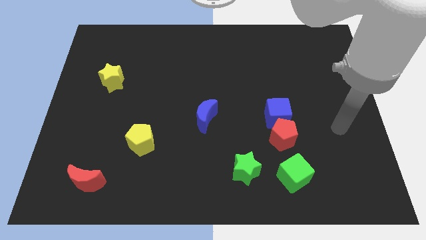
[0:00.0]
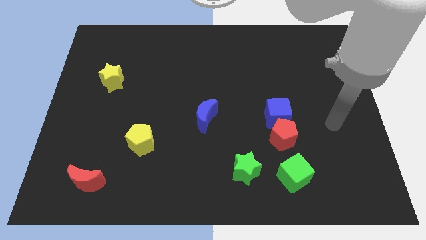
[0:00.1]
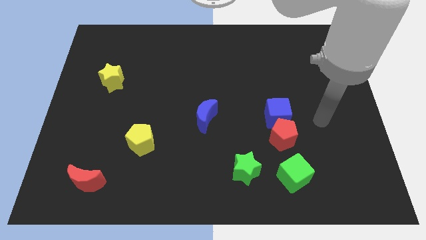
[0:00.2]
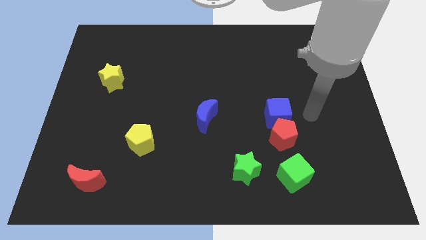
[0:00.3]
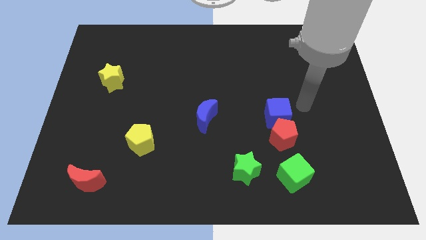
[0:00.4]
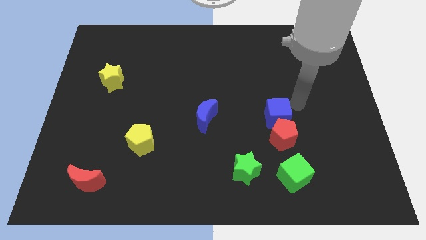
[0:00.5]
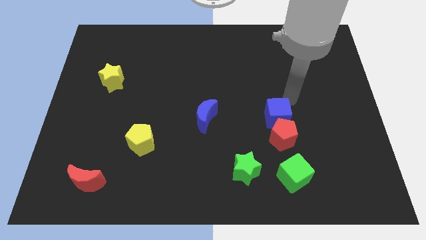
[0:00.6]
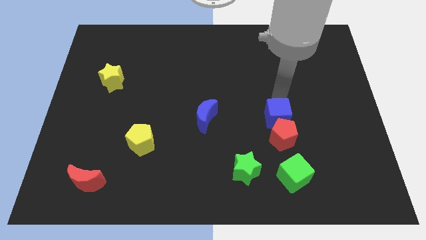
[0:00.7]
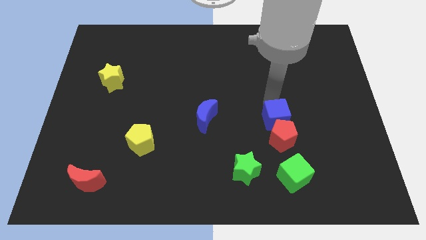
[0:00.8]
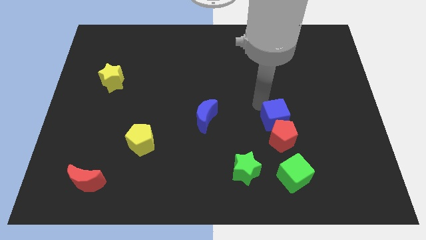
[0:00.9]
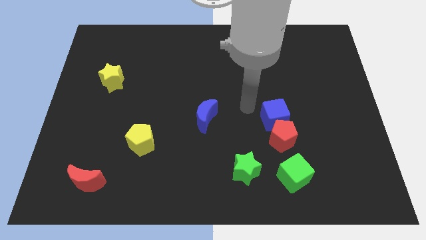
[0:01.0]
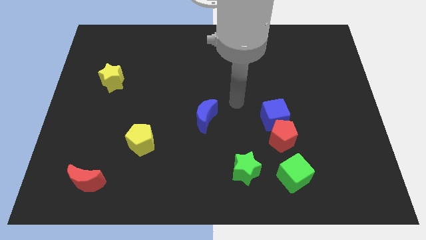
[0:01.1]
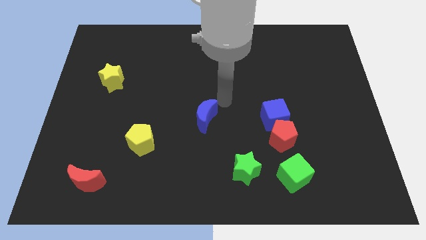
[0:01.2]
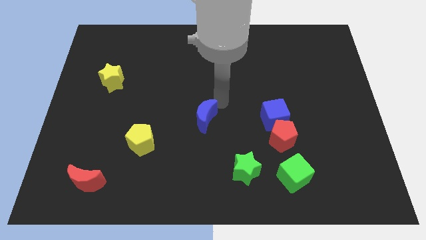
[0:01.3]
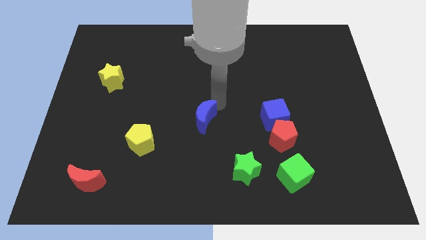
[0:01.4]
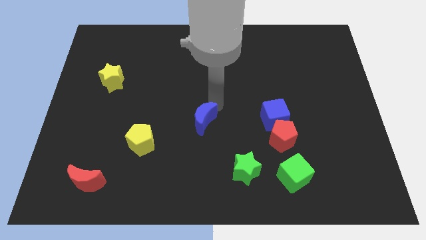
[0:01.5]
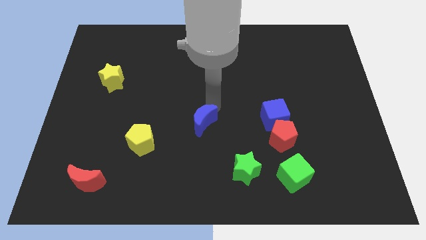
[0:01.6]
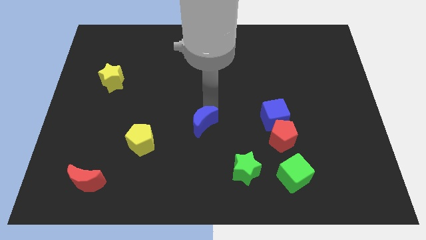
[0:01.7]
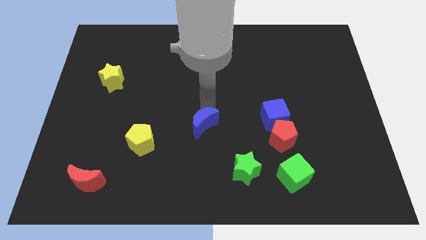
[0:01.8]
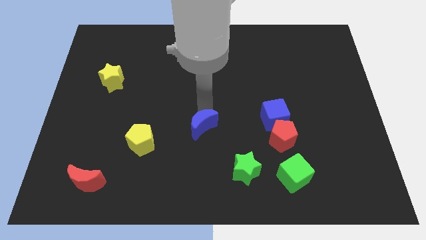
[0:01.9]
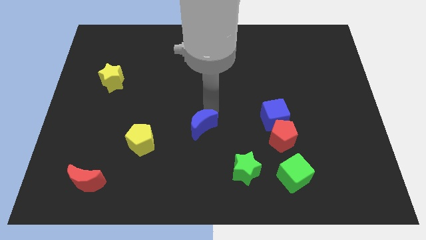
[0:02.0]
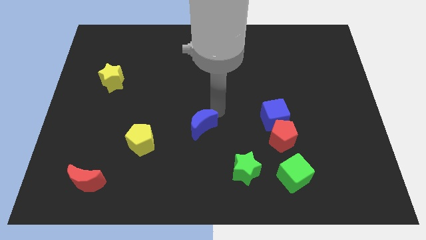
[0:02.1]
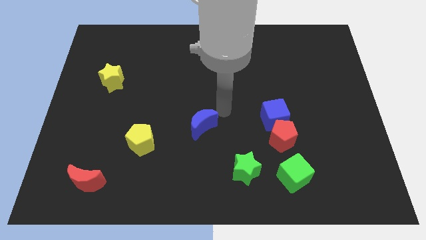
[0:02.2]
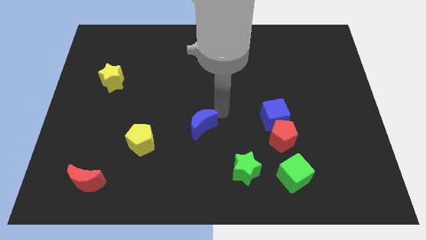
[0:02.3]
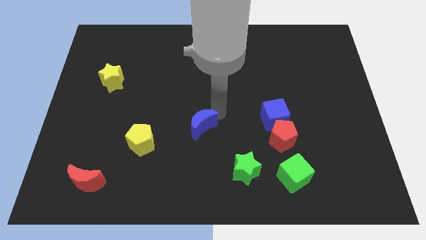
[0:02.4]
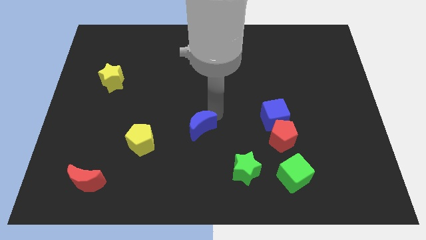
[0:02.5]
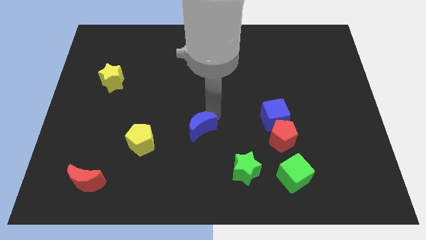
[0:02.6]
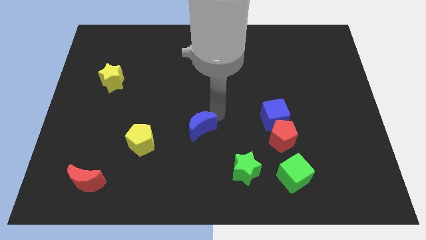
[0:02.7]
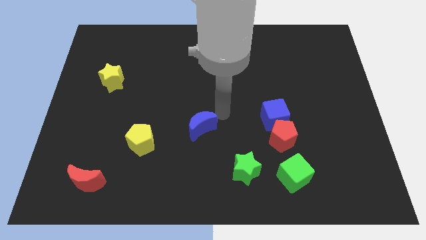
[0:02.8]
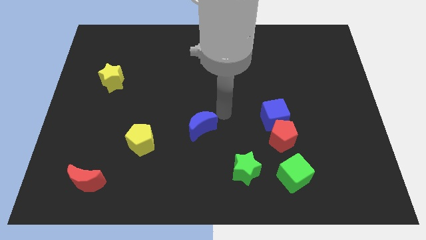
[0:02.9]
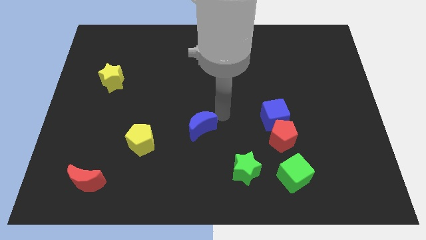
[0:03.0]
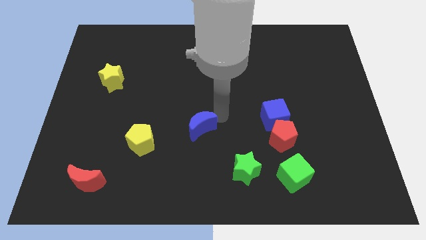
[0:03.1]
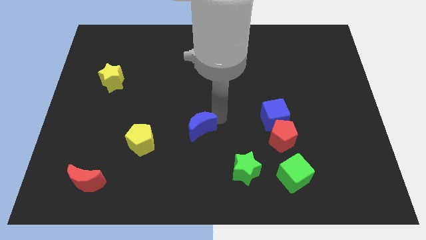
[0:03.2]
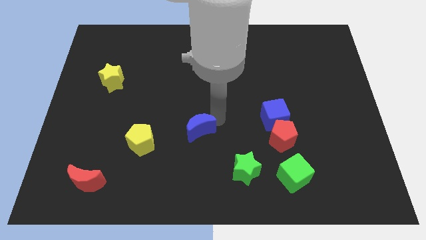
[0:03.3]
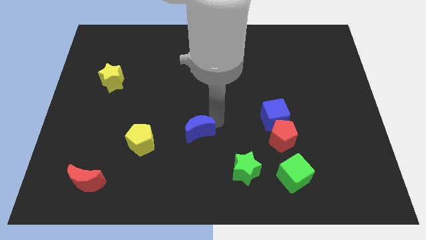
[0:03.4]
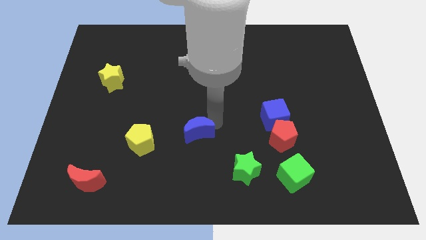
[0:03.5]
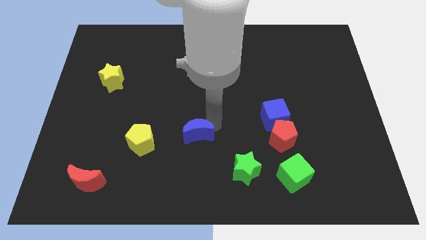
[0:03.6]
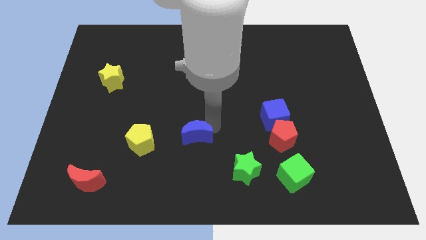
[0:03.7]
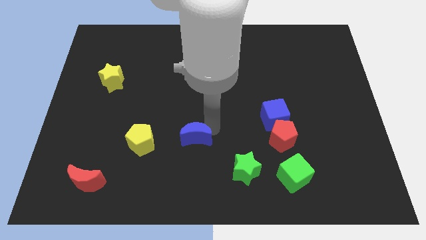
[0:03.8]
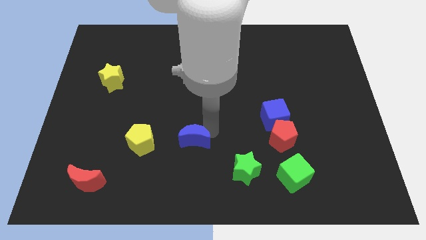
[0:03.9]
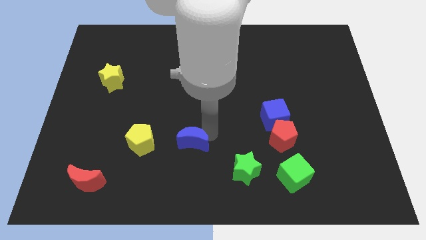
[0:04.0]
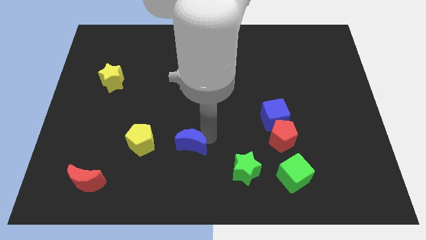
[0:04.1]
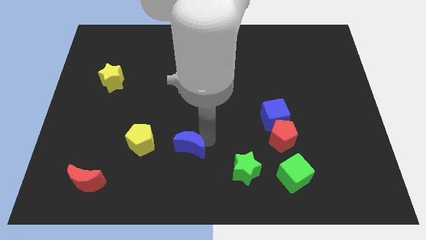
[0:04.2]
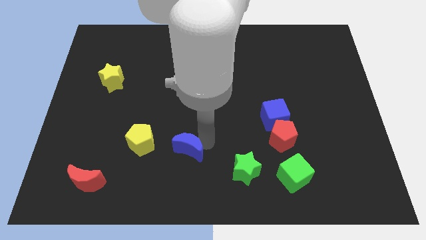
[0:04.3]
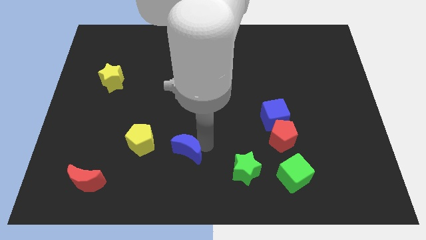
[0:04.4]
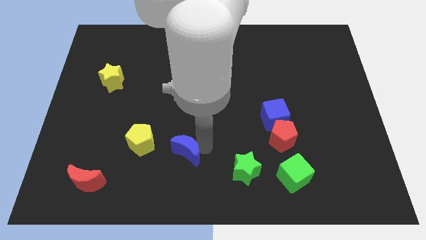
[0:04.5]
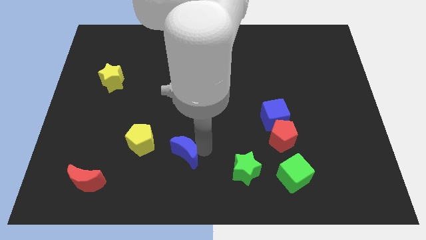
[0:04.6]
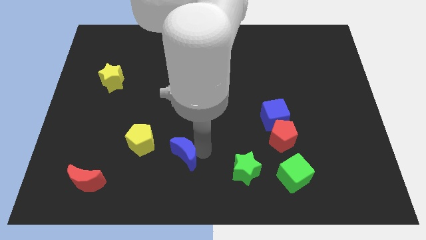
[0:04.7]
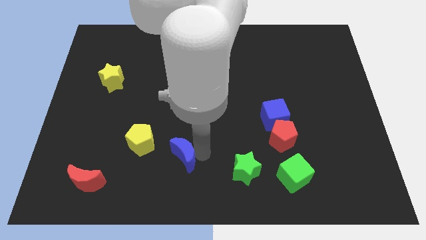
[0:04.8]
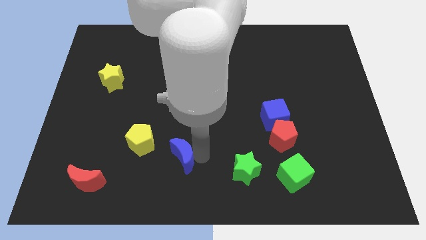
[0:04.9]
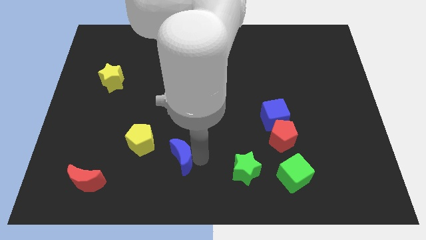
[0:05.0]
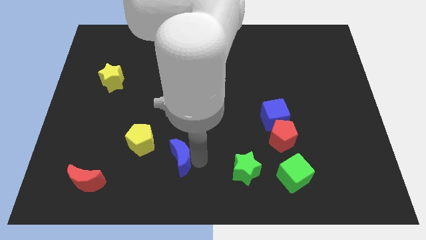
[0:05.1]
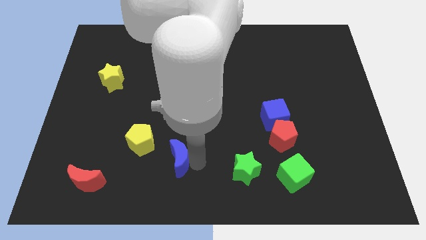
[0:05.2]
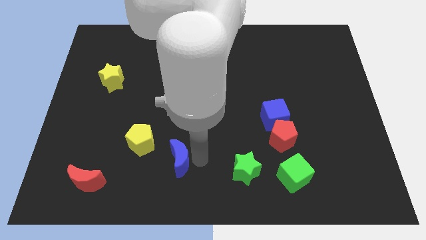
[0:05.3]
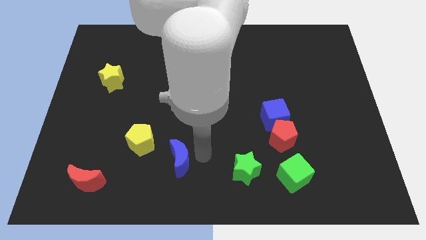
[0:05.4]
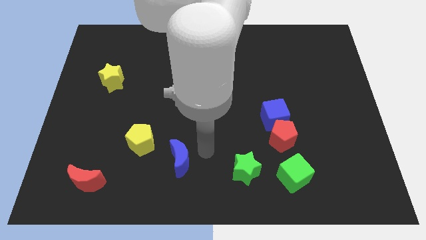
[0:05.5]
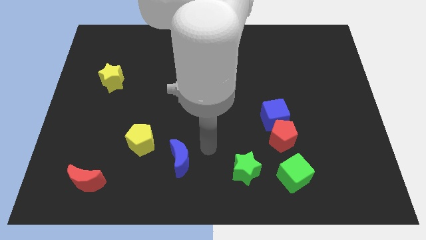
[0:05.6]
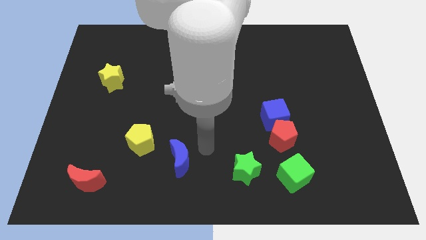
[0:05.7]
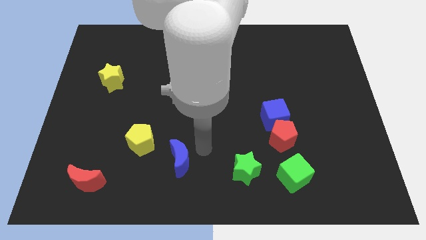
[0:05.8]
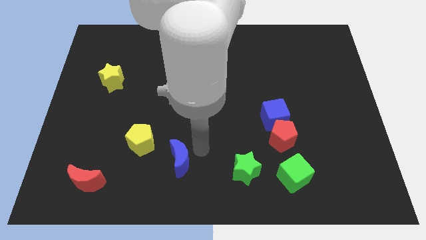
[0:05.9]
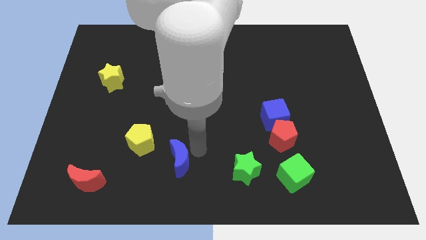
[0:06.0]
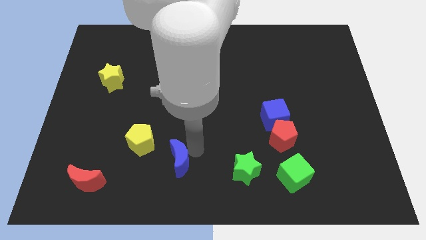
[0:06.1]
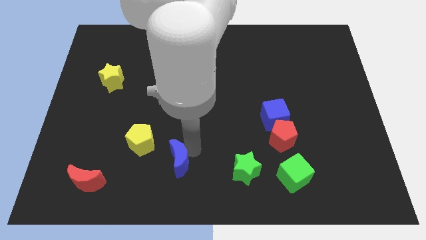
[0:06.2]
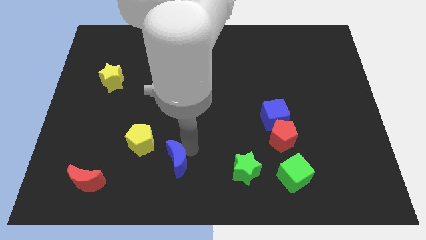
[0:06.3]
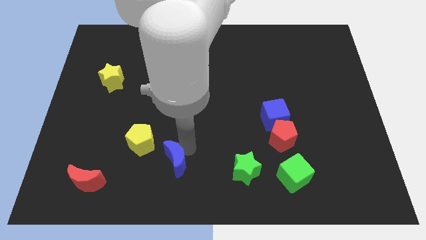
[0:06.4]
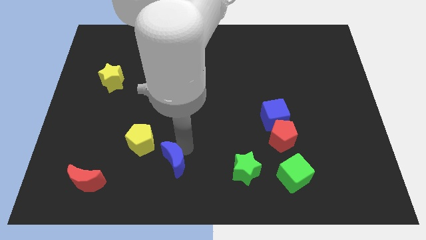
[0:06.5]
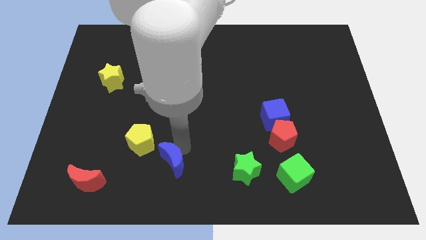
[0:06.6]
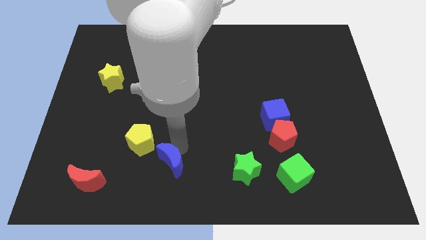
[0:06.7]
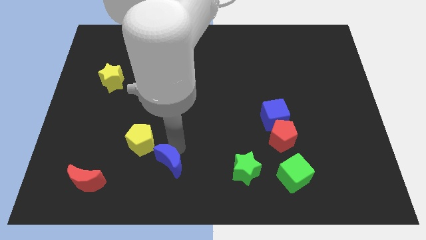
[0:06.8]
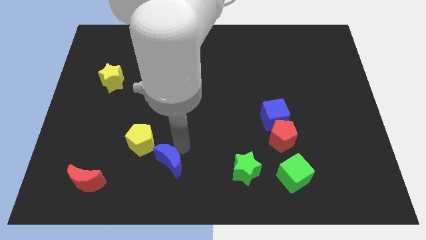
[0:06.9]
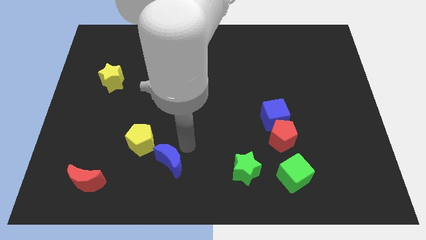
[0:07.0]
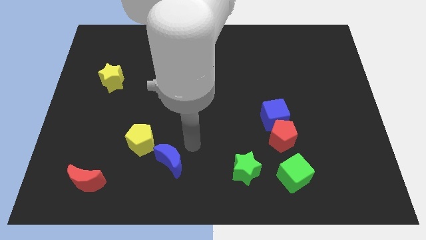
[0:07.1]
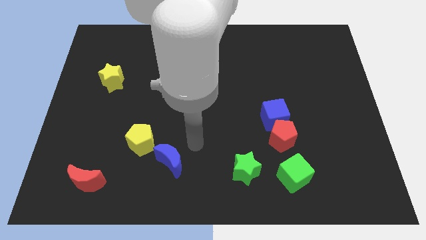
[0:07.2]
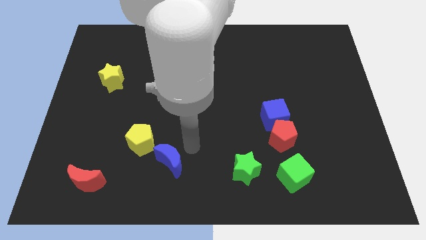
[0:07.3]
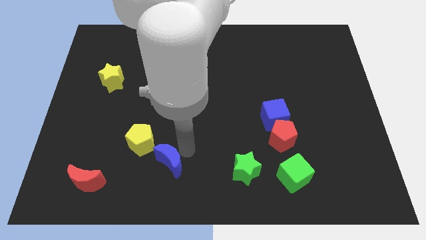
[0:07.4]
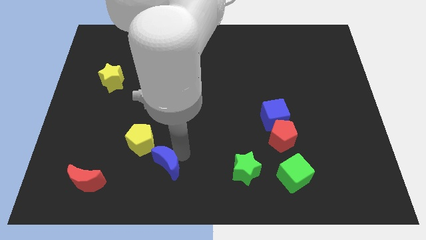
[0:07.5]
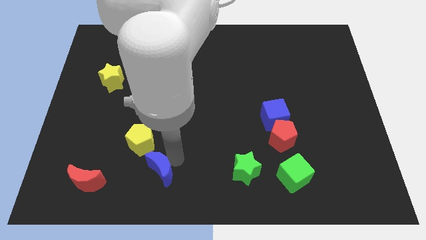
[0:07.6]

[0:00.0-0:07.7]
move the blue moon right of the red moon
